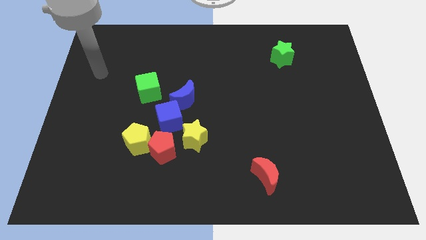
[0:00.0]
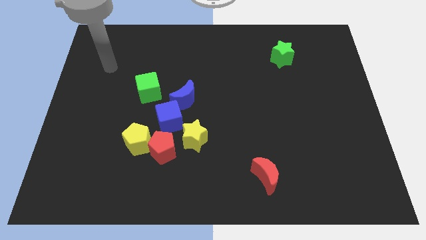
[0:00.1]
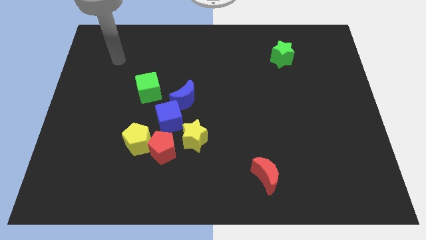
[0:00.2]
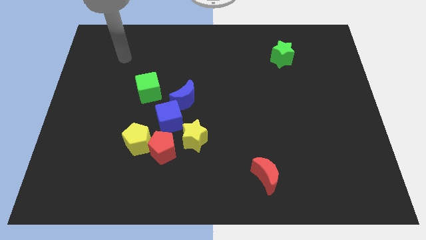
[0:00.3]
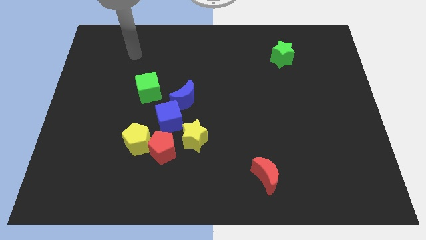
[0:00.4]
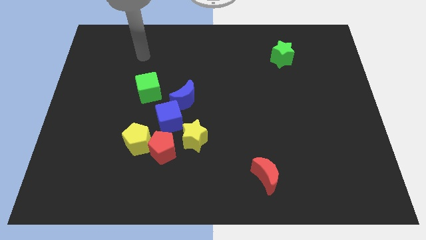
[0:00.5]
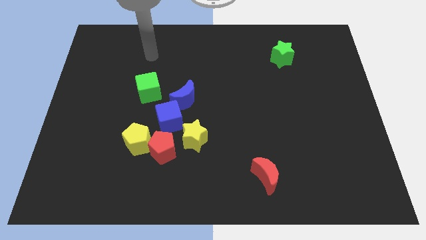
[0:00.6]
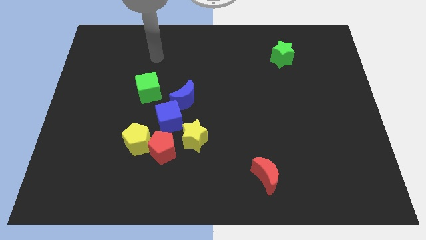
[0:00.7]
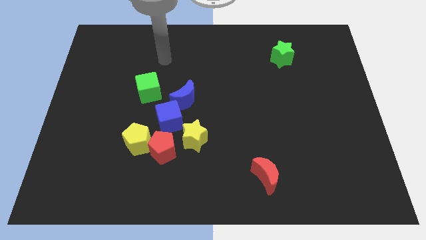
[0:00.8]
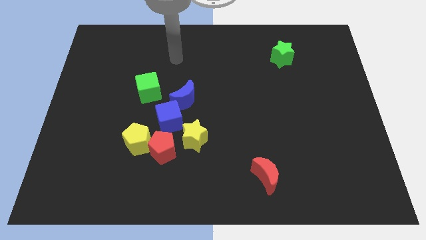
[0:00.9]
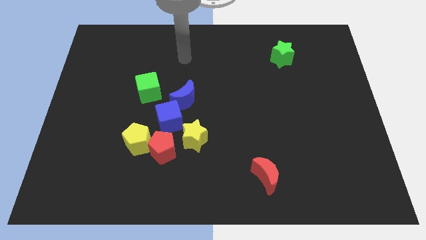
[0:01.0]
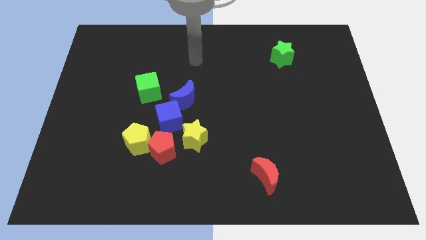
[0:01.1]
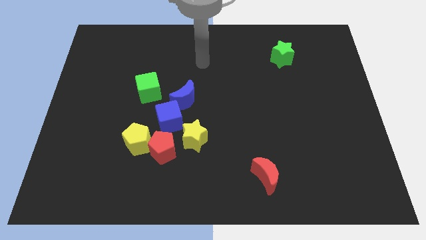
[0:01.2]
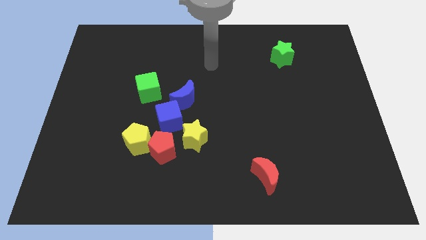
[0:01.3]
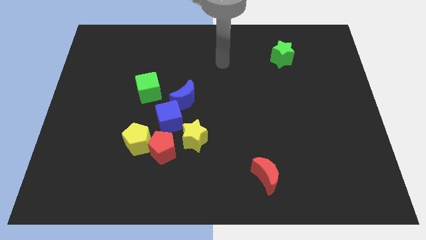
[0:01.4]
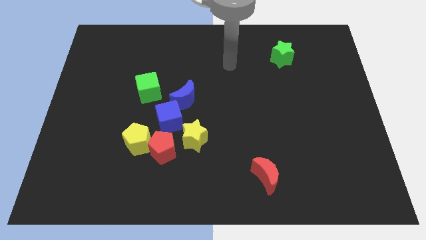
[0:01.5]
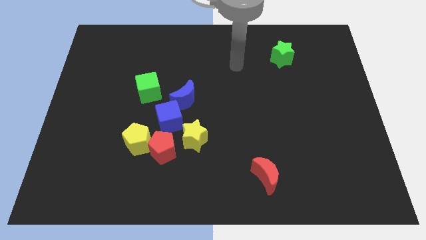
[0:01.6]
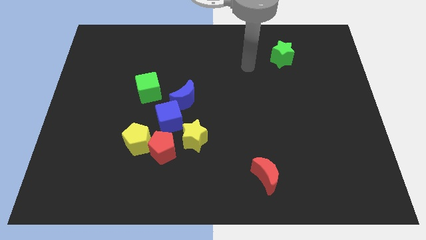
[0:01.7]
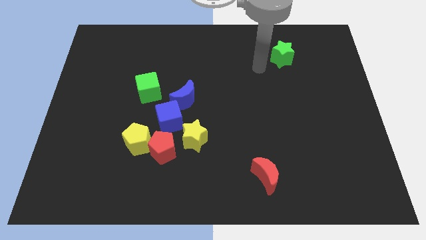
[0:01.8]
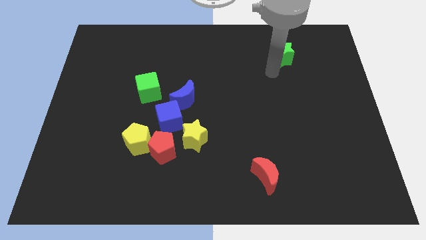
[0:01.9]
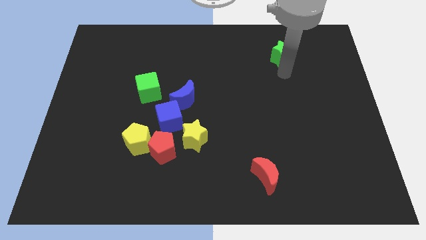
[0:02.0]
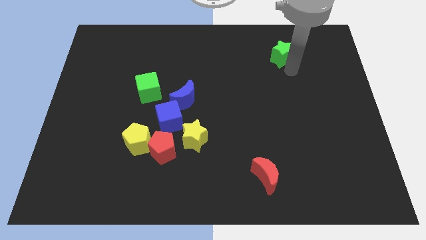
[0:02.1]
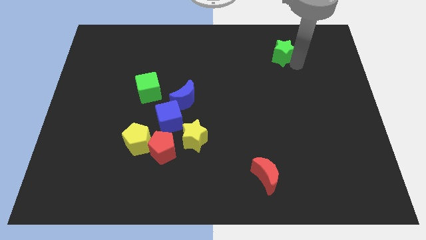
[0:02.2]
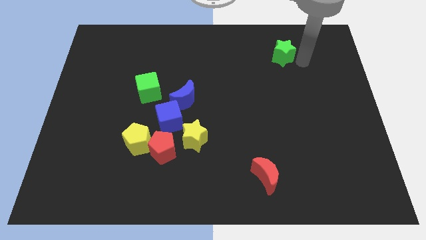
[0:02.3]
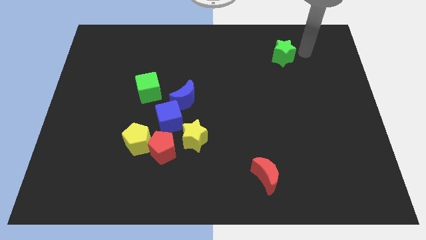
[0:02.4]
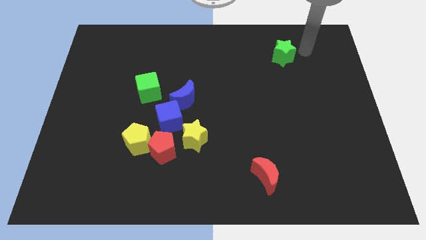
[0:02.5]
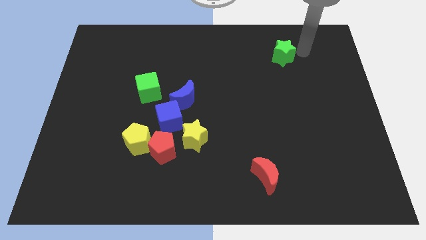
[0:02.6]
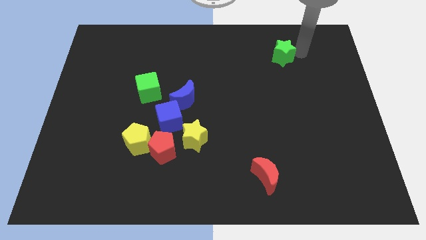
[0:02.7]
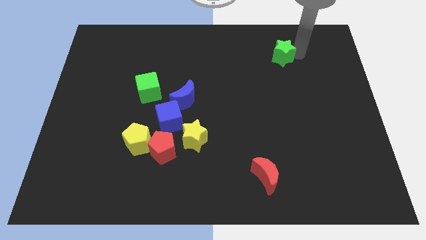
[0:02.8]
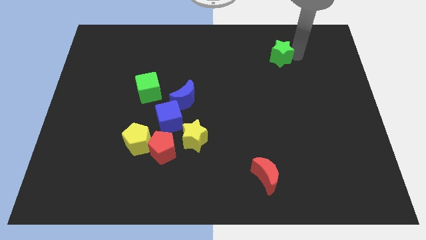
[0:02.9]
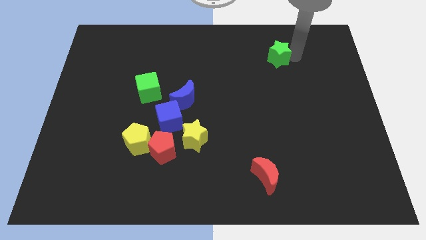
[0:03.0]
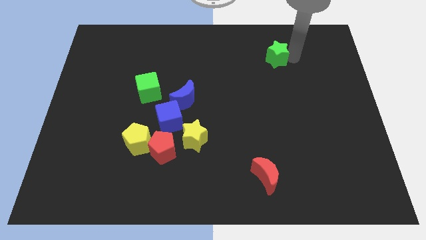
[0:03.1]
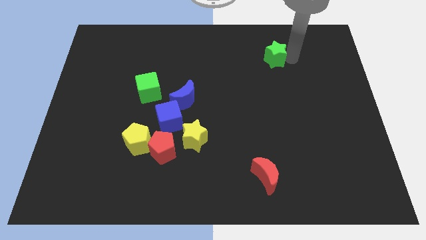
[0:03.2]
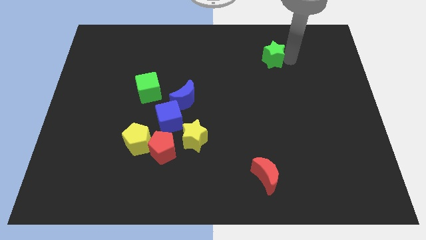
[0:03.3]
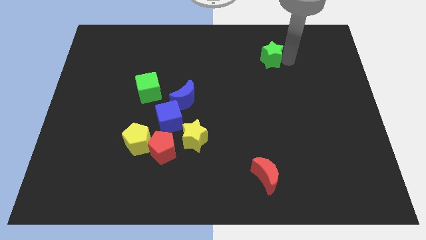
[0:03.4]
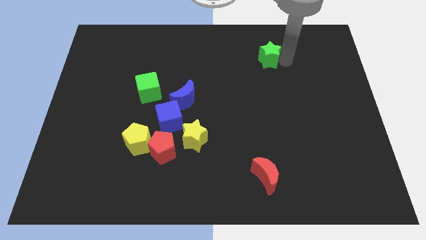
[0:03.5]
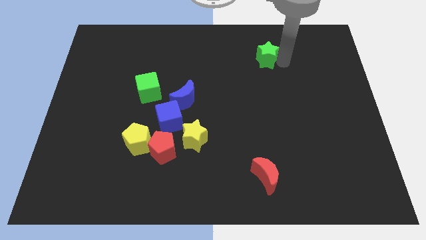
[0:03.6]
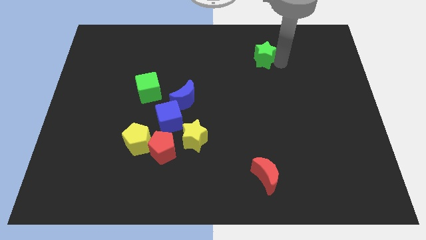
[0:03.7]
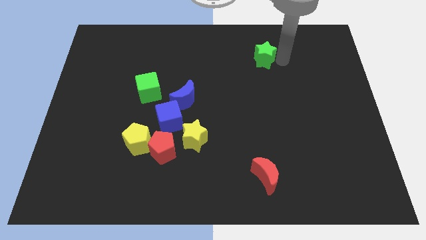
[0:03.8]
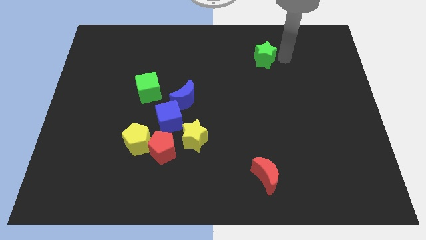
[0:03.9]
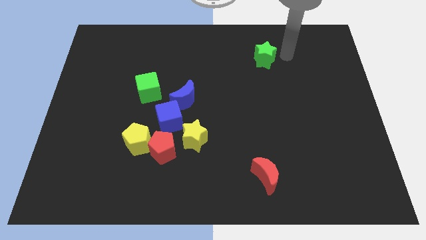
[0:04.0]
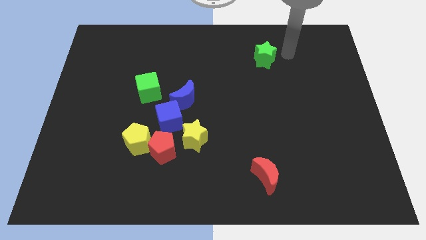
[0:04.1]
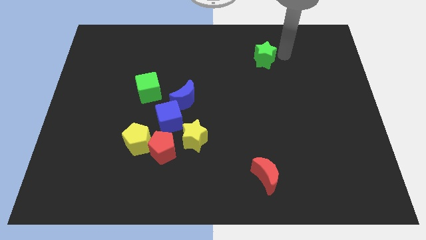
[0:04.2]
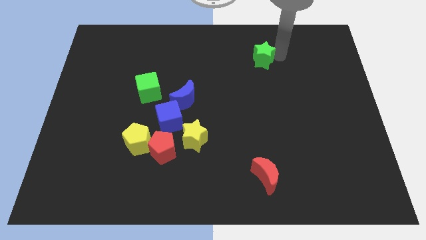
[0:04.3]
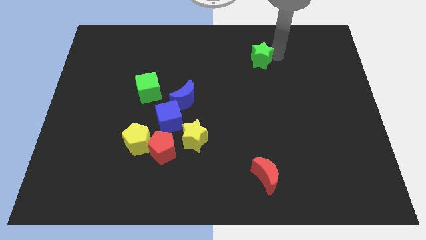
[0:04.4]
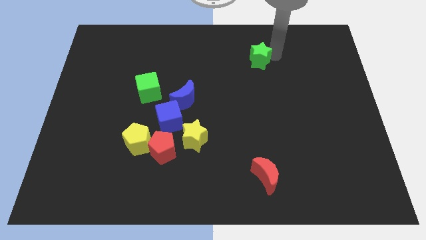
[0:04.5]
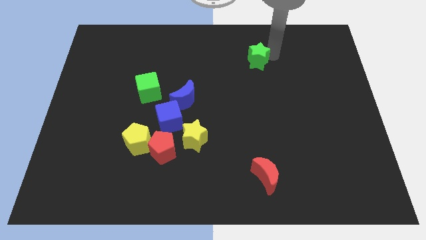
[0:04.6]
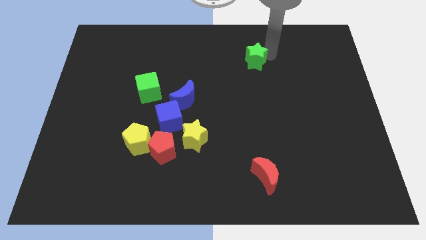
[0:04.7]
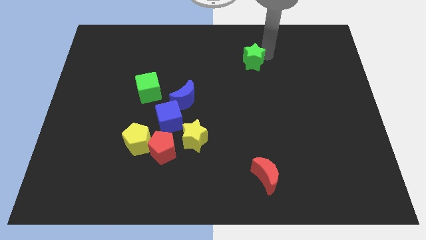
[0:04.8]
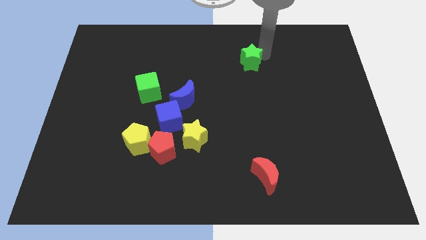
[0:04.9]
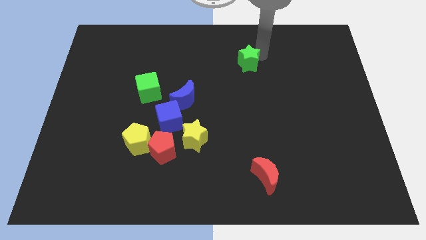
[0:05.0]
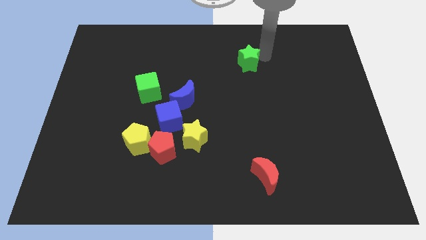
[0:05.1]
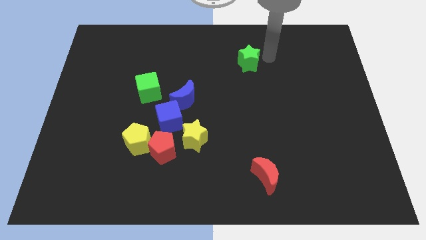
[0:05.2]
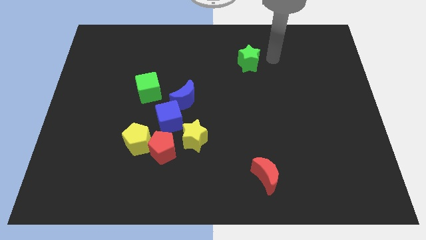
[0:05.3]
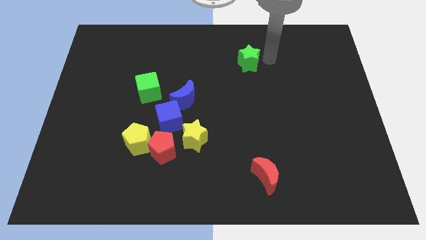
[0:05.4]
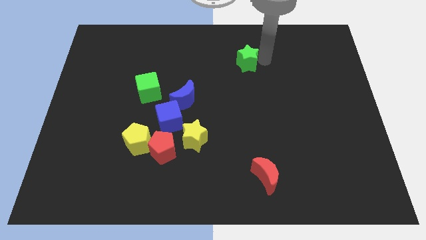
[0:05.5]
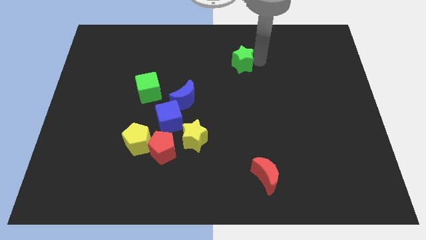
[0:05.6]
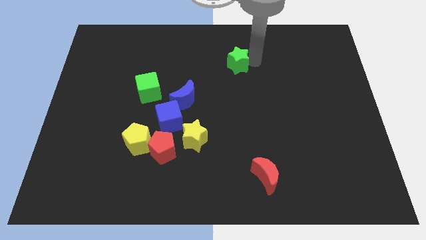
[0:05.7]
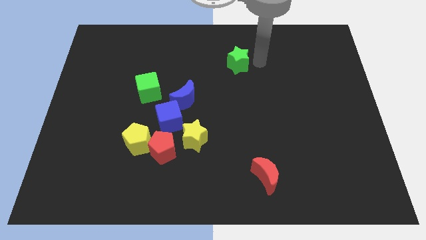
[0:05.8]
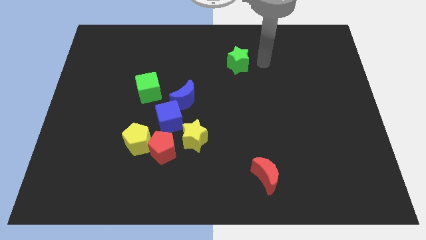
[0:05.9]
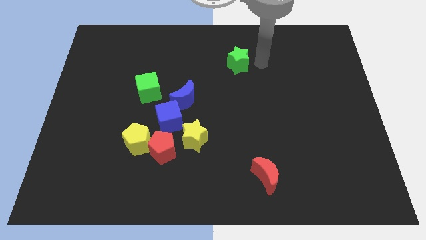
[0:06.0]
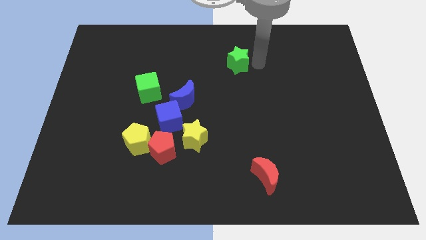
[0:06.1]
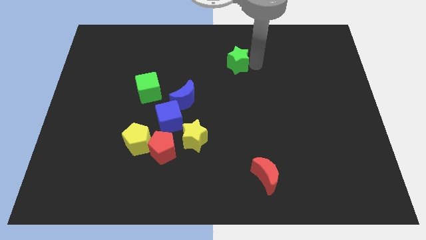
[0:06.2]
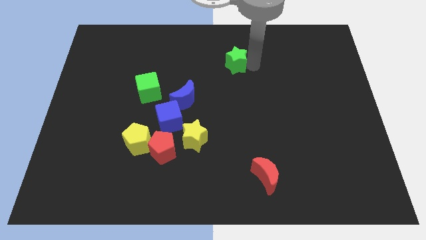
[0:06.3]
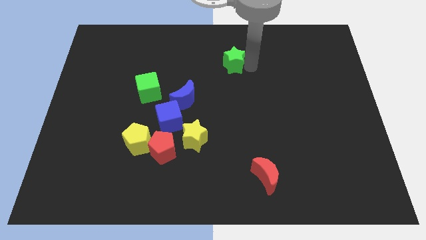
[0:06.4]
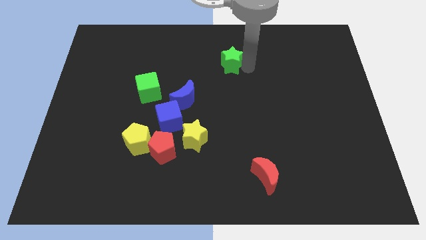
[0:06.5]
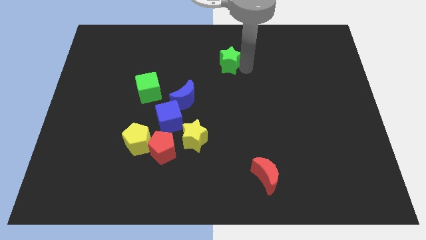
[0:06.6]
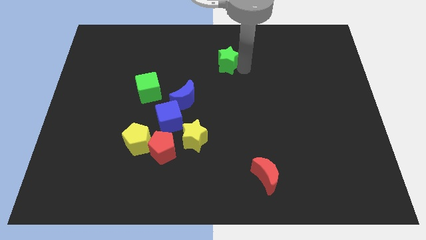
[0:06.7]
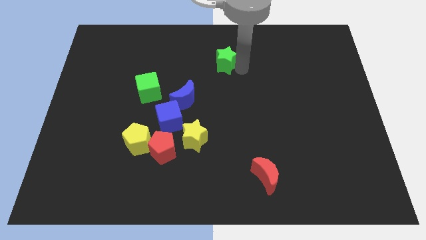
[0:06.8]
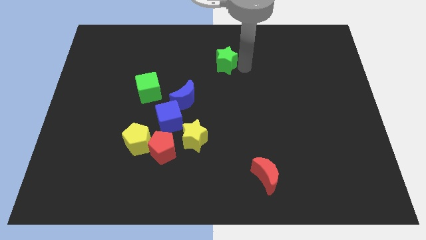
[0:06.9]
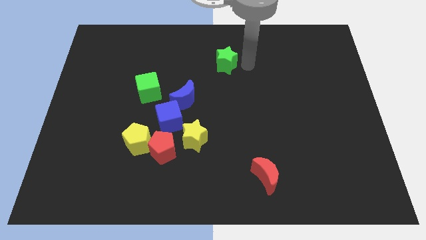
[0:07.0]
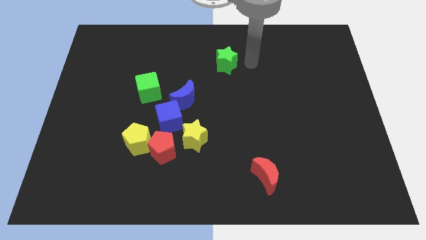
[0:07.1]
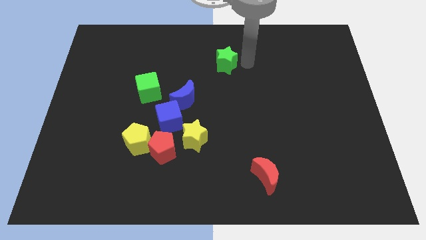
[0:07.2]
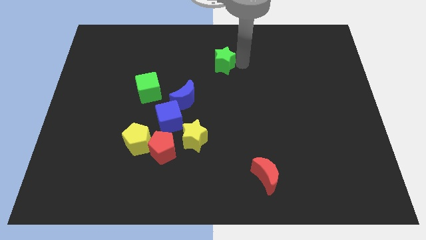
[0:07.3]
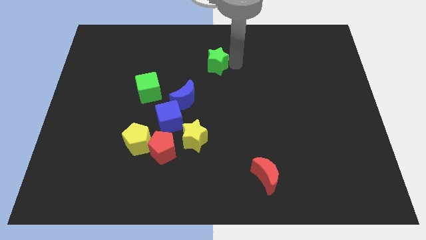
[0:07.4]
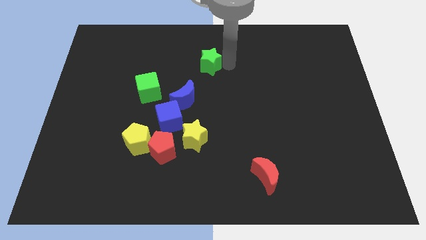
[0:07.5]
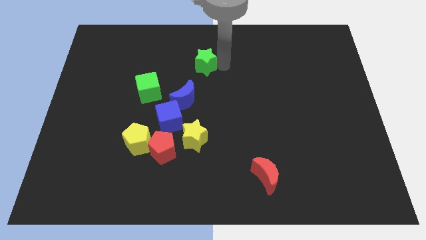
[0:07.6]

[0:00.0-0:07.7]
slide the green star to the left

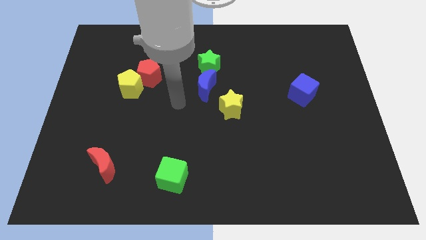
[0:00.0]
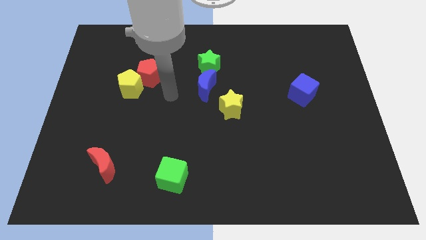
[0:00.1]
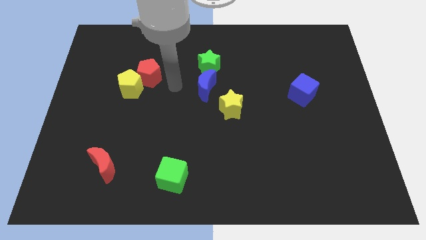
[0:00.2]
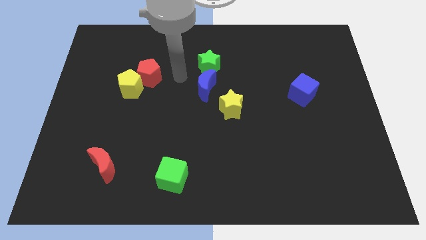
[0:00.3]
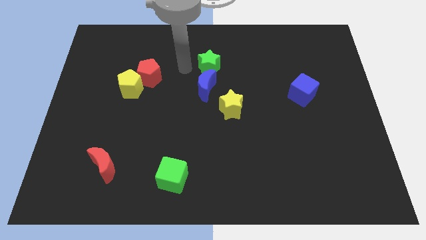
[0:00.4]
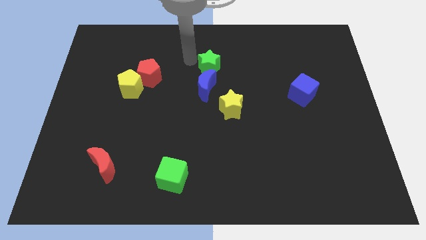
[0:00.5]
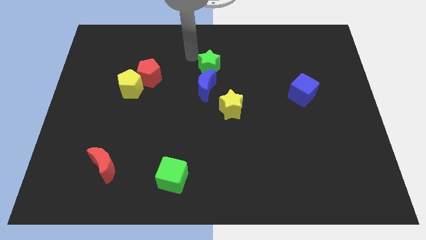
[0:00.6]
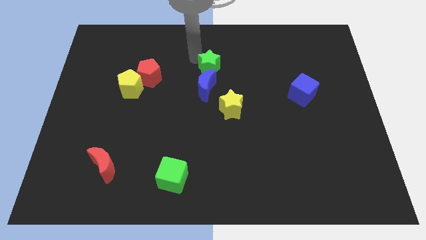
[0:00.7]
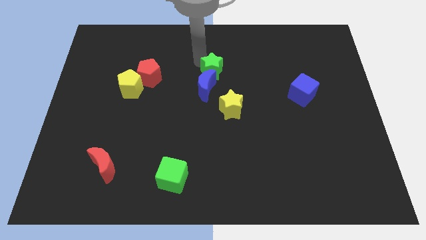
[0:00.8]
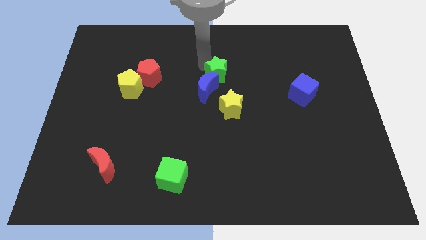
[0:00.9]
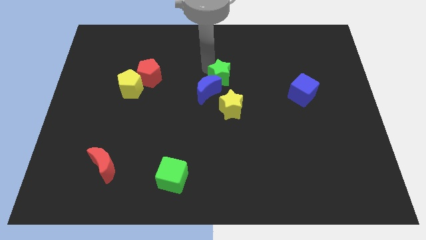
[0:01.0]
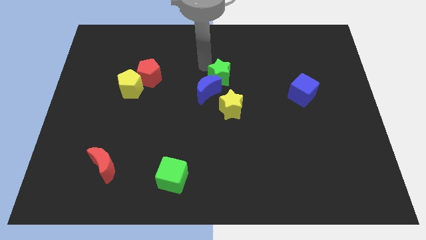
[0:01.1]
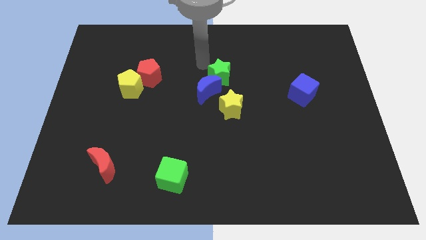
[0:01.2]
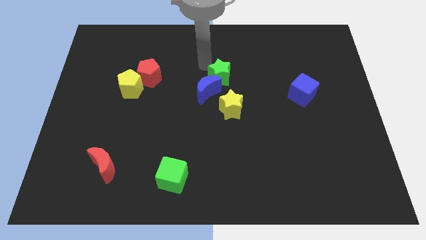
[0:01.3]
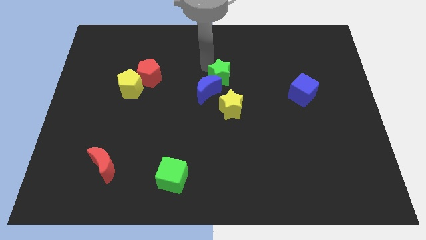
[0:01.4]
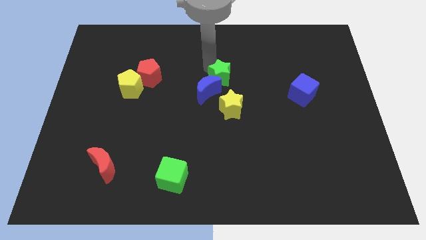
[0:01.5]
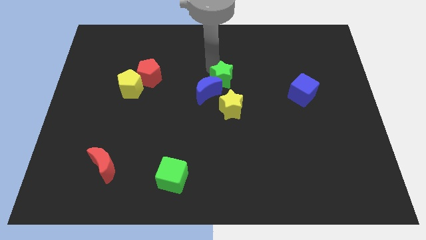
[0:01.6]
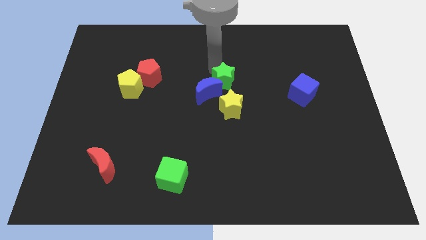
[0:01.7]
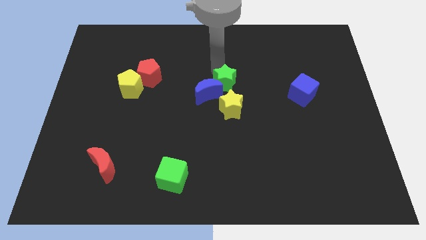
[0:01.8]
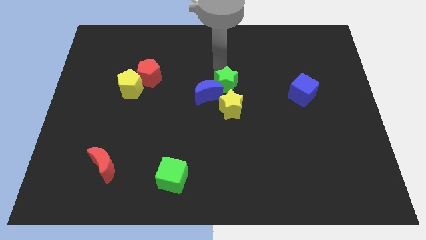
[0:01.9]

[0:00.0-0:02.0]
slide the green star diagonally downwards and right a bit
